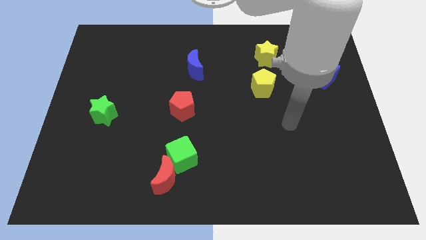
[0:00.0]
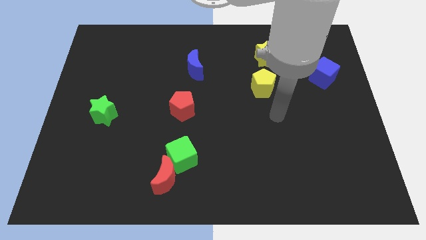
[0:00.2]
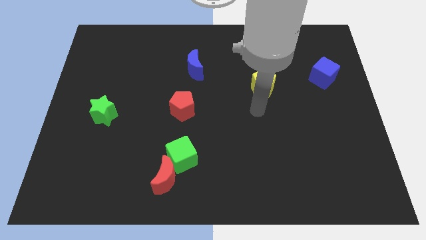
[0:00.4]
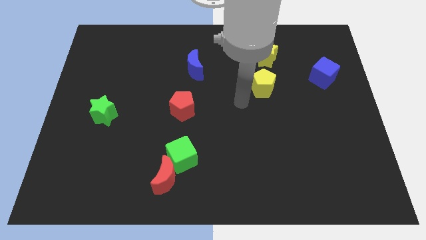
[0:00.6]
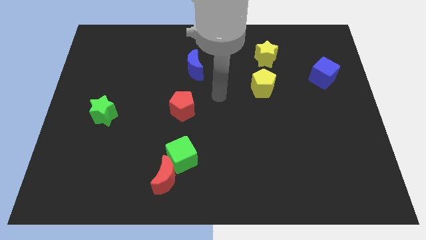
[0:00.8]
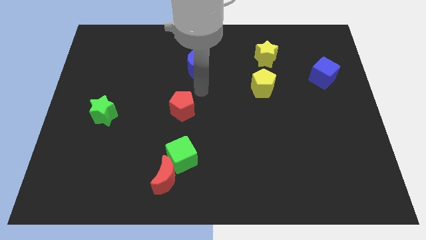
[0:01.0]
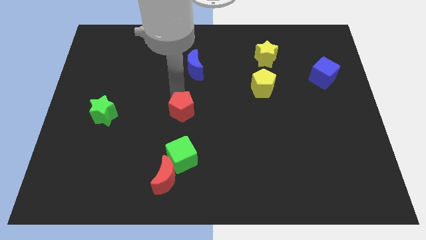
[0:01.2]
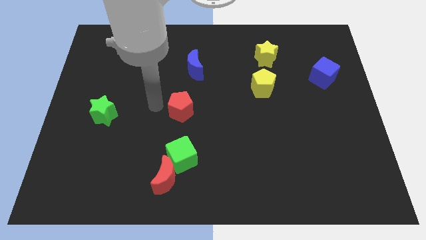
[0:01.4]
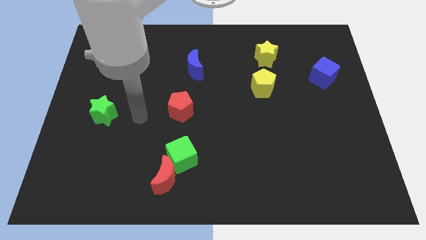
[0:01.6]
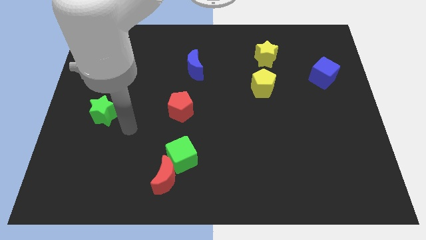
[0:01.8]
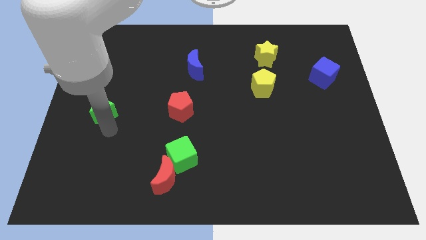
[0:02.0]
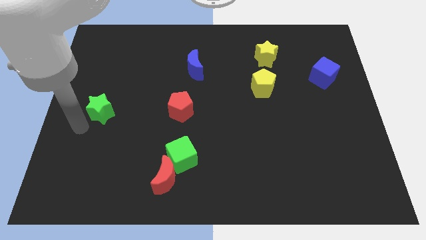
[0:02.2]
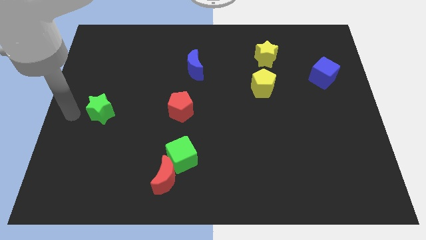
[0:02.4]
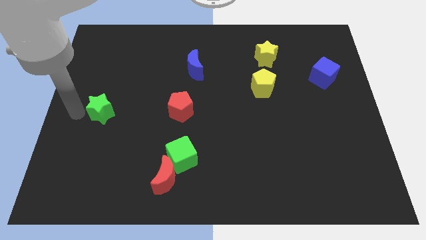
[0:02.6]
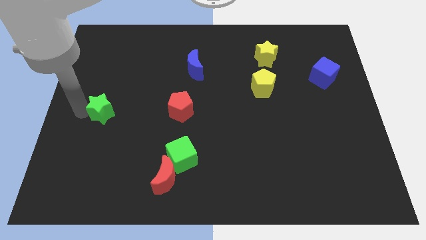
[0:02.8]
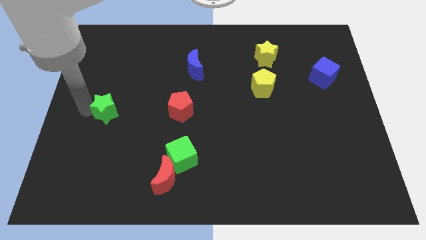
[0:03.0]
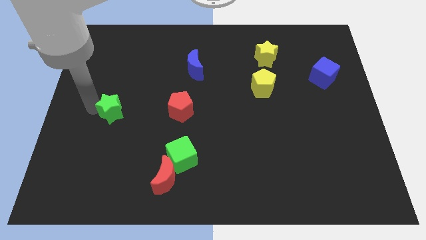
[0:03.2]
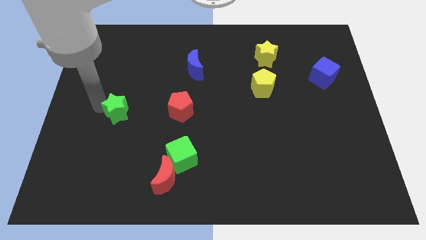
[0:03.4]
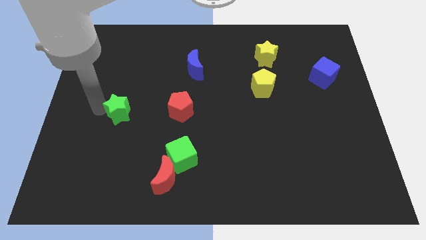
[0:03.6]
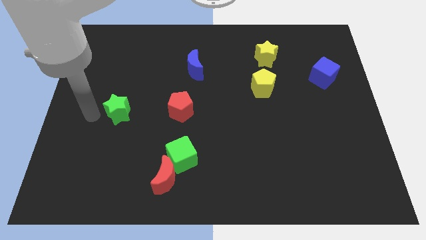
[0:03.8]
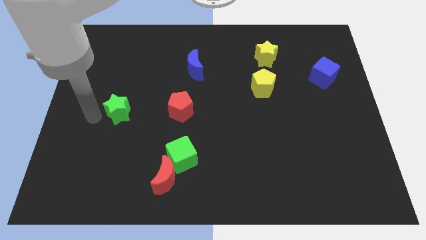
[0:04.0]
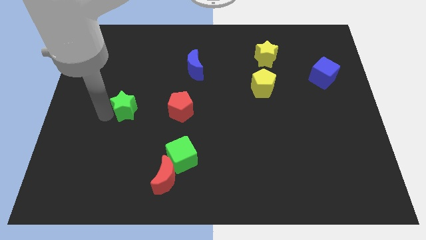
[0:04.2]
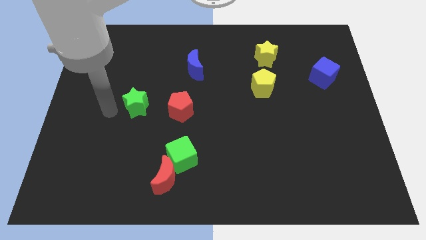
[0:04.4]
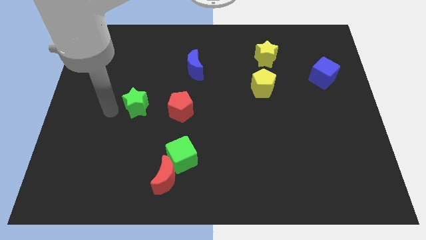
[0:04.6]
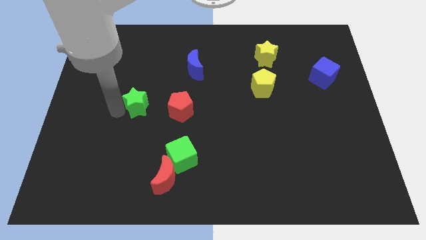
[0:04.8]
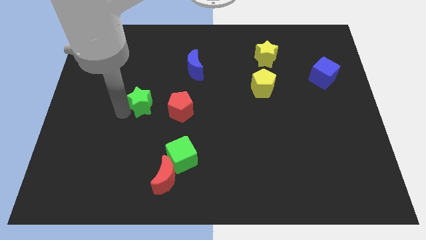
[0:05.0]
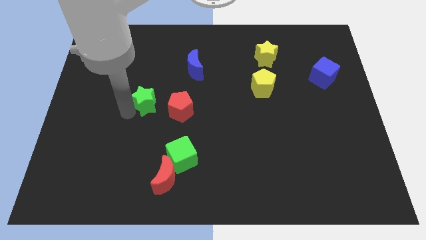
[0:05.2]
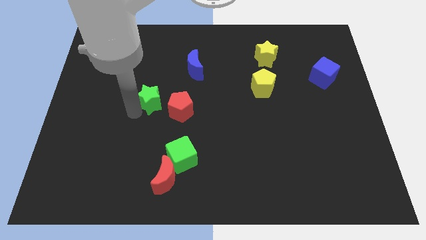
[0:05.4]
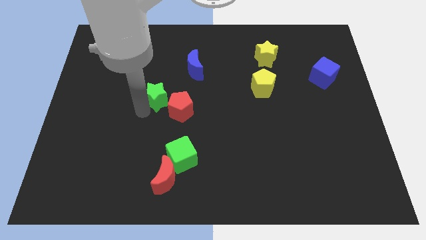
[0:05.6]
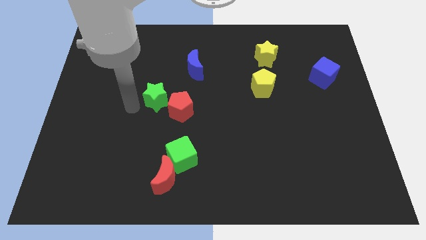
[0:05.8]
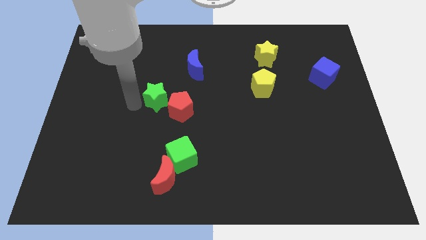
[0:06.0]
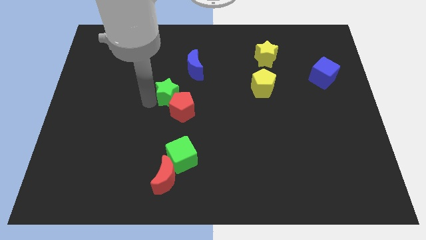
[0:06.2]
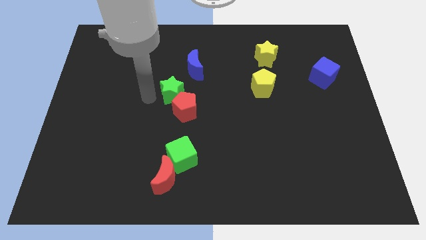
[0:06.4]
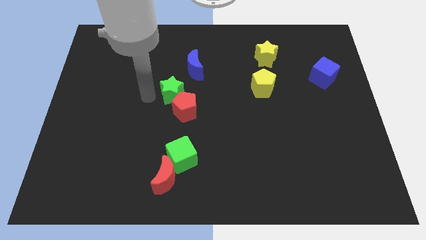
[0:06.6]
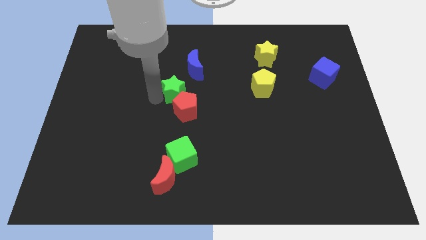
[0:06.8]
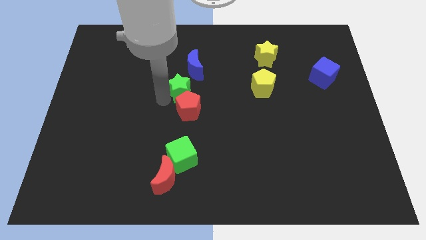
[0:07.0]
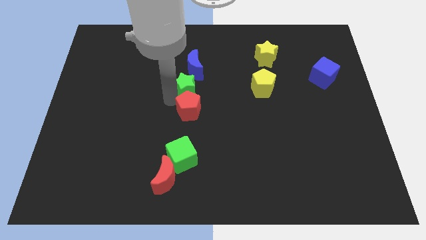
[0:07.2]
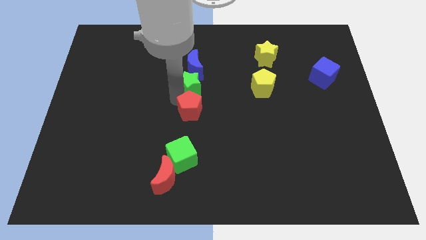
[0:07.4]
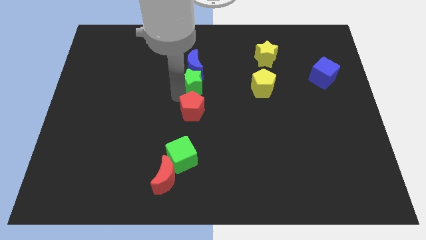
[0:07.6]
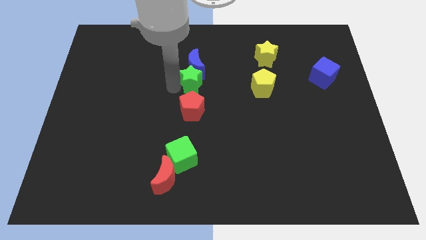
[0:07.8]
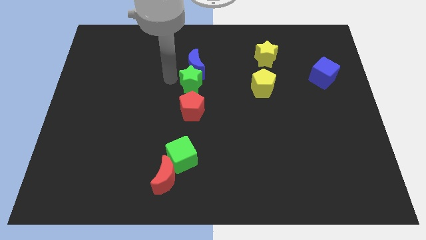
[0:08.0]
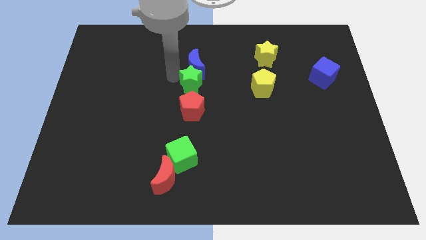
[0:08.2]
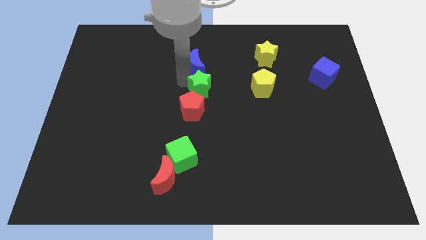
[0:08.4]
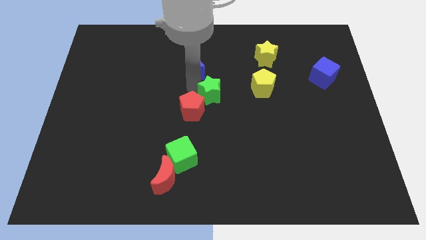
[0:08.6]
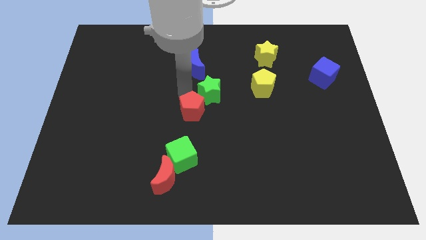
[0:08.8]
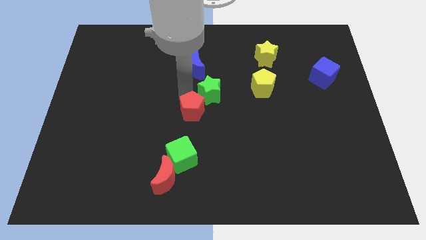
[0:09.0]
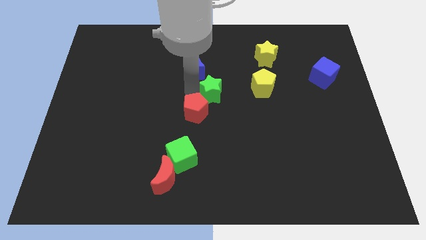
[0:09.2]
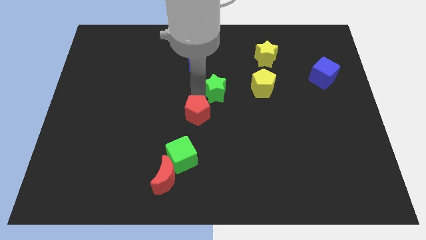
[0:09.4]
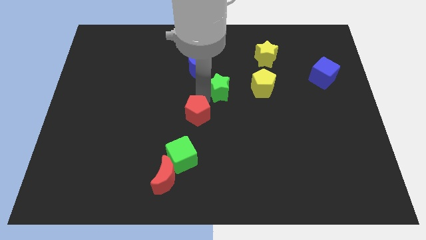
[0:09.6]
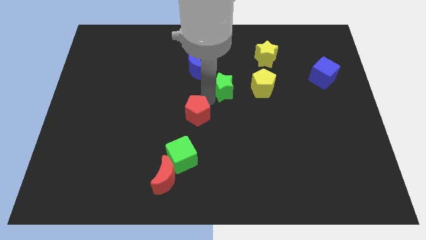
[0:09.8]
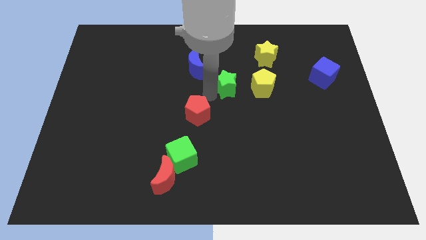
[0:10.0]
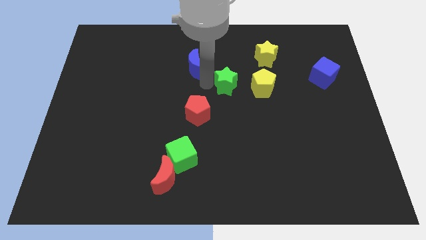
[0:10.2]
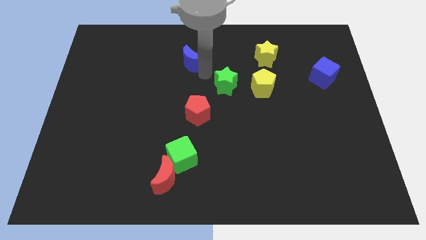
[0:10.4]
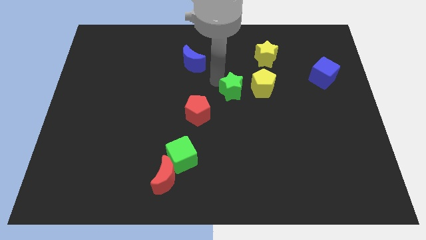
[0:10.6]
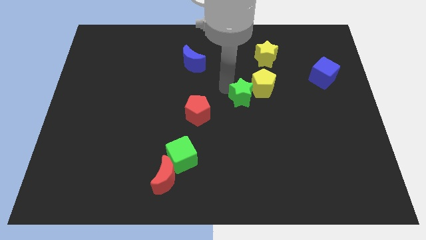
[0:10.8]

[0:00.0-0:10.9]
move the green star next to the yellow pentagon

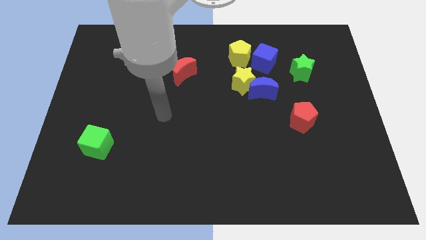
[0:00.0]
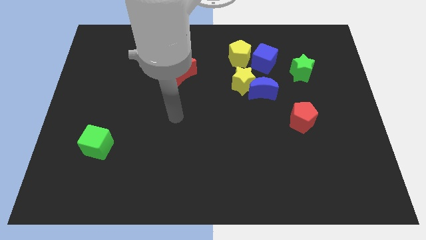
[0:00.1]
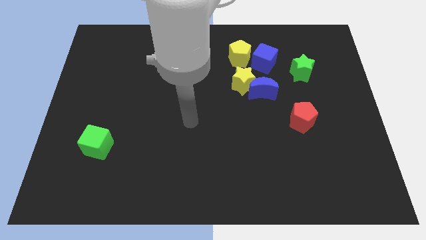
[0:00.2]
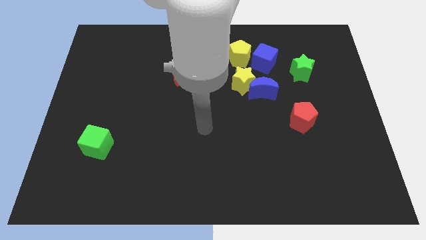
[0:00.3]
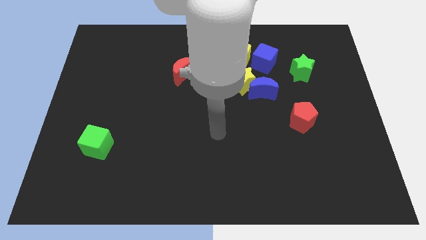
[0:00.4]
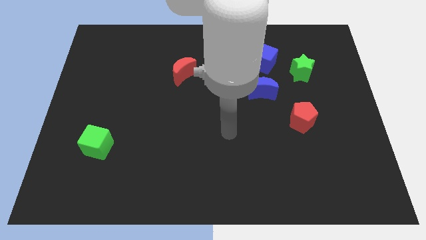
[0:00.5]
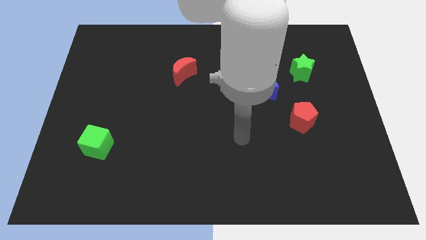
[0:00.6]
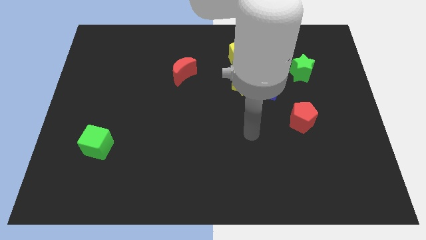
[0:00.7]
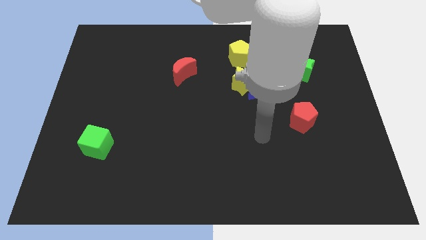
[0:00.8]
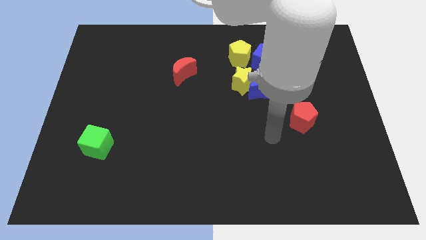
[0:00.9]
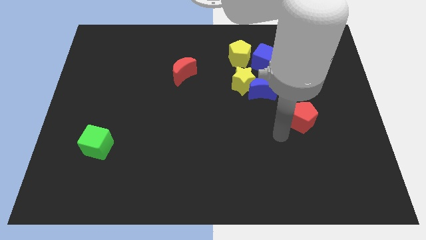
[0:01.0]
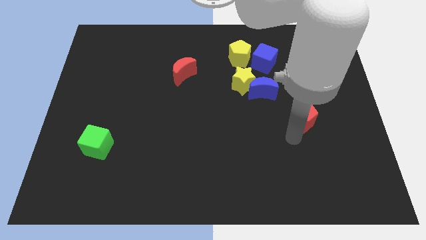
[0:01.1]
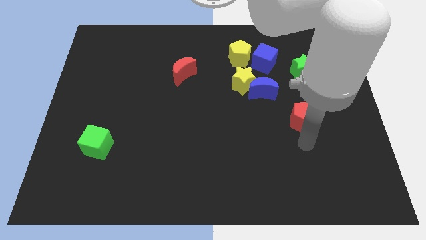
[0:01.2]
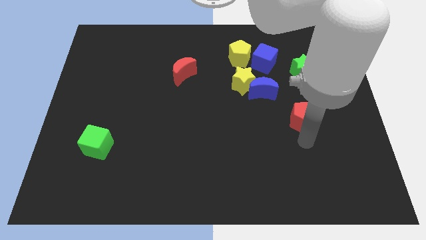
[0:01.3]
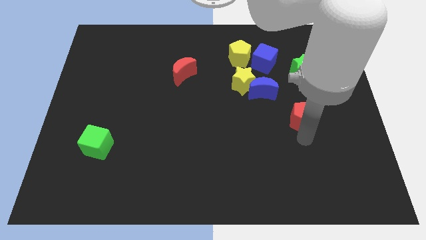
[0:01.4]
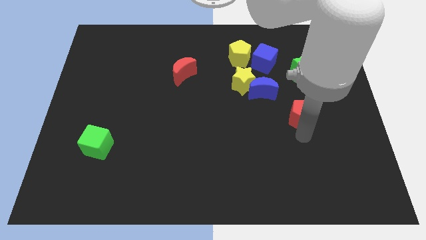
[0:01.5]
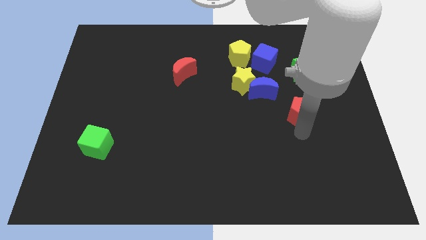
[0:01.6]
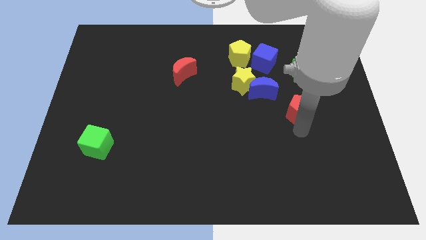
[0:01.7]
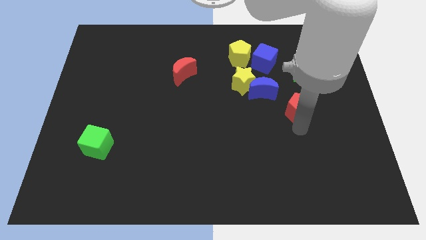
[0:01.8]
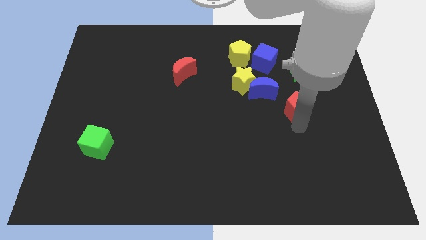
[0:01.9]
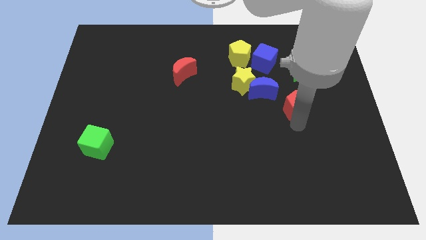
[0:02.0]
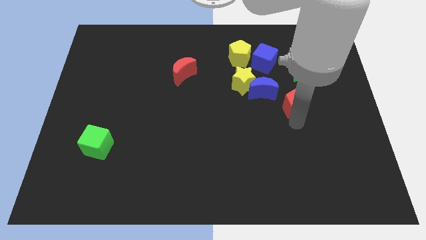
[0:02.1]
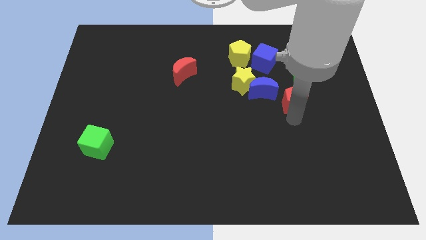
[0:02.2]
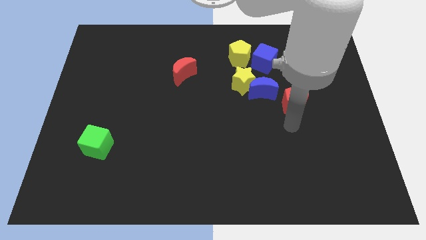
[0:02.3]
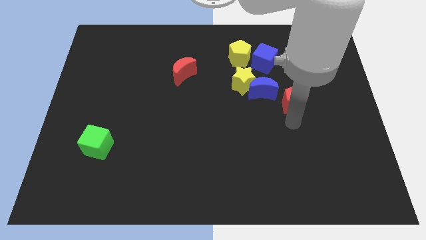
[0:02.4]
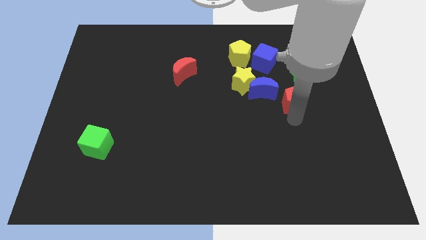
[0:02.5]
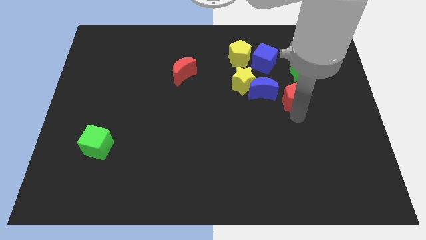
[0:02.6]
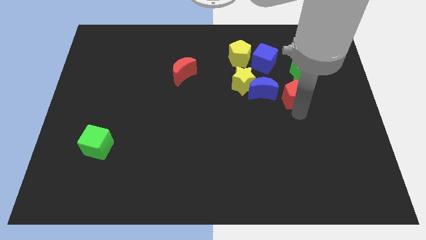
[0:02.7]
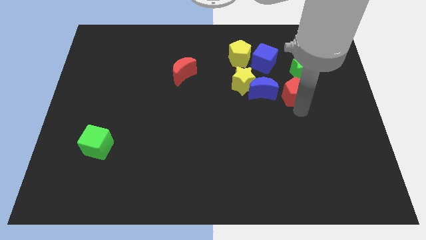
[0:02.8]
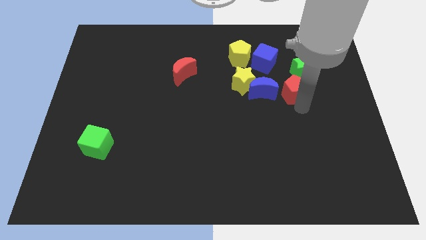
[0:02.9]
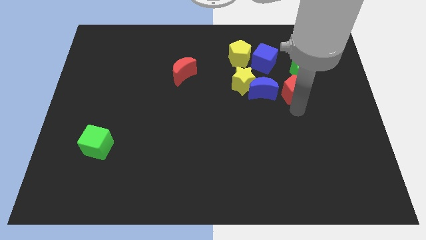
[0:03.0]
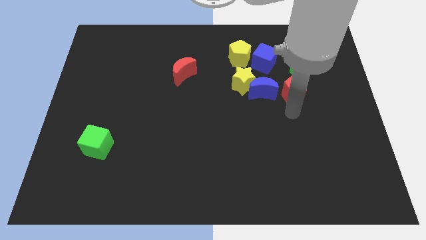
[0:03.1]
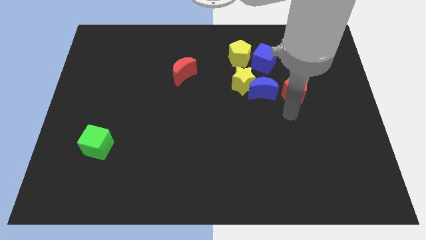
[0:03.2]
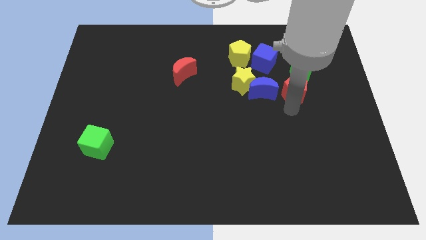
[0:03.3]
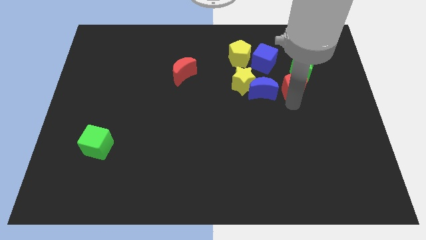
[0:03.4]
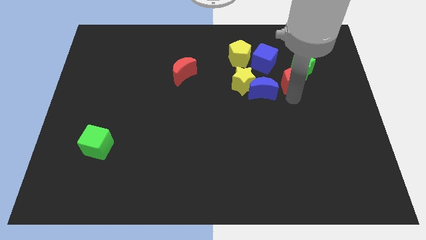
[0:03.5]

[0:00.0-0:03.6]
push the red pentagon to the green star
